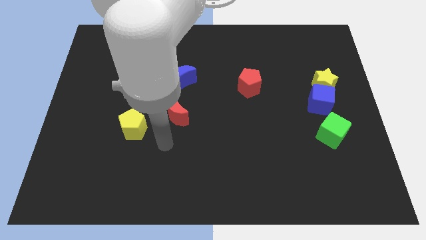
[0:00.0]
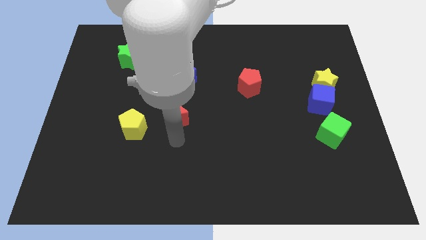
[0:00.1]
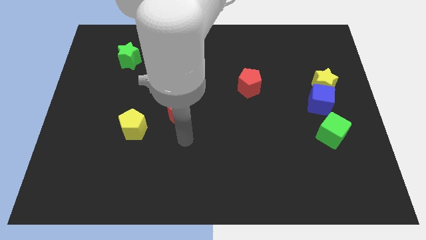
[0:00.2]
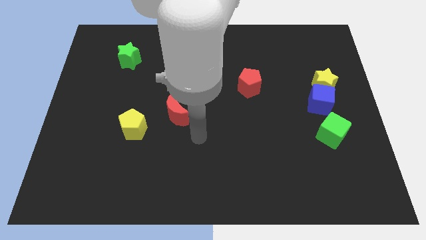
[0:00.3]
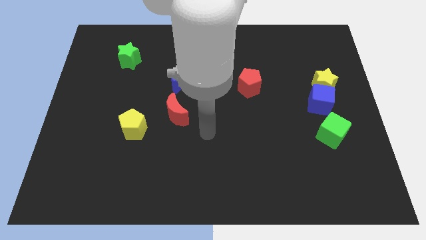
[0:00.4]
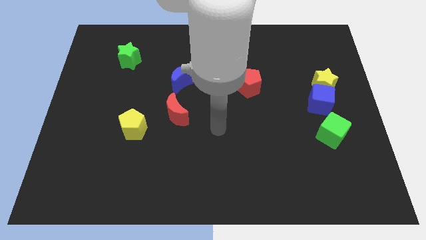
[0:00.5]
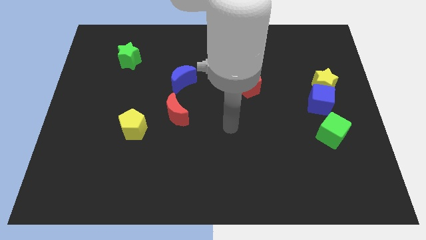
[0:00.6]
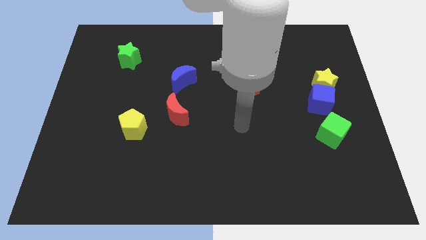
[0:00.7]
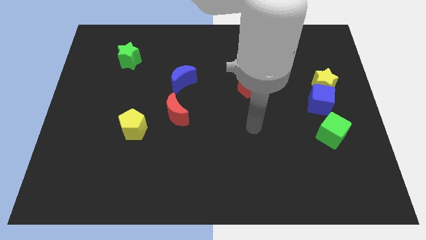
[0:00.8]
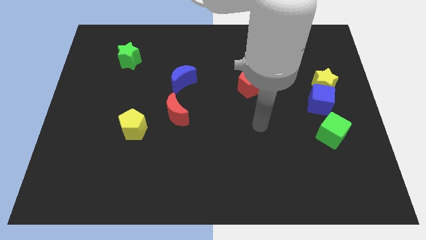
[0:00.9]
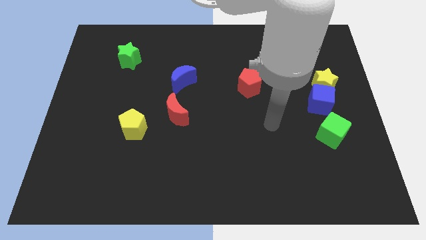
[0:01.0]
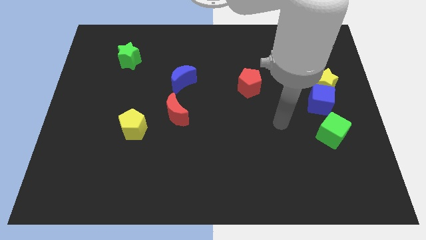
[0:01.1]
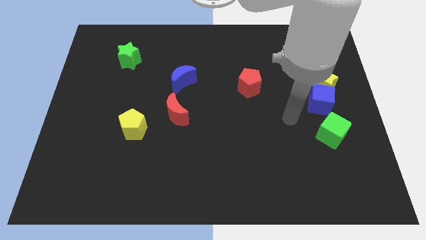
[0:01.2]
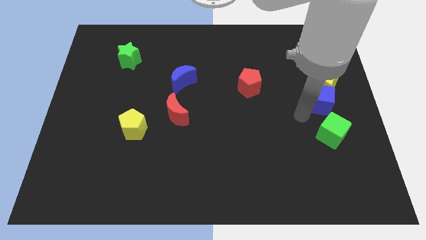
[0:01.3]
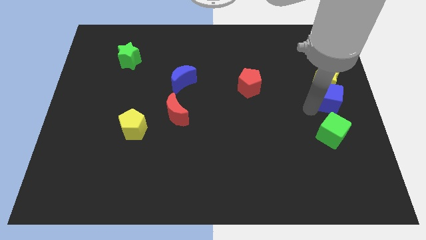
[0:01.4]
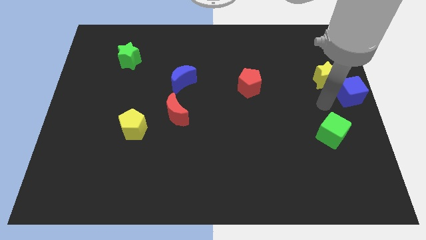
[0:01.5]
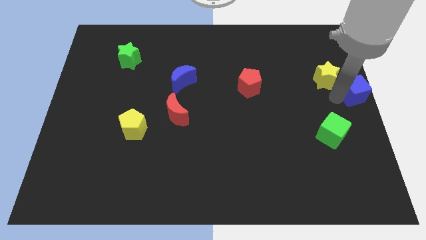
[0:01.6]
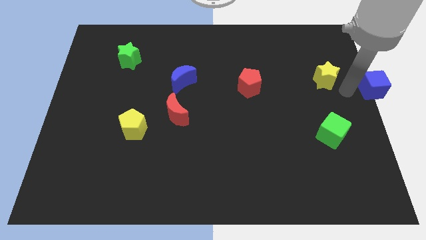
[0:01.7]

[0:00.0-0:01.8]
separate the yellow star from the blue cube

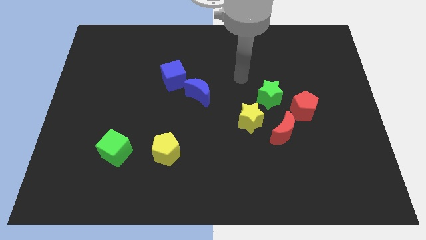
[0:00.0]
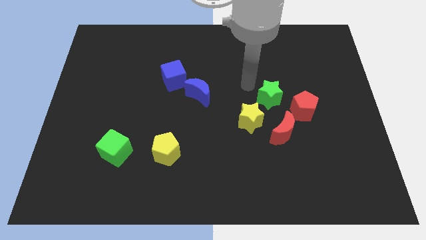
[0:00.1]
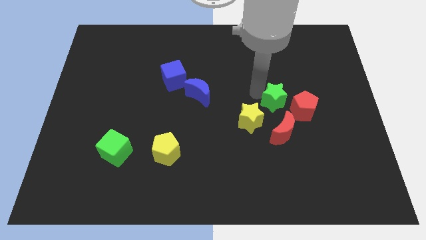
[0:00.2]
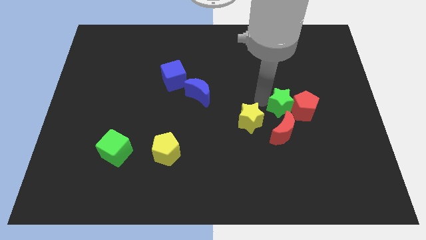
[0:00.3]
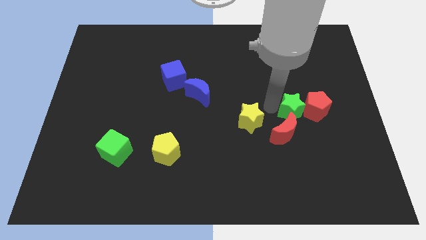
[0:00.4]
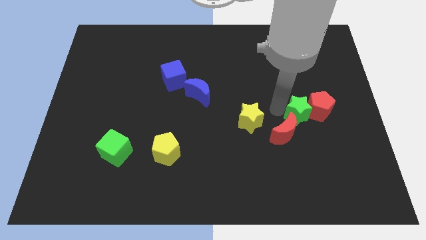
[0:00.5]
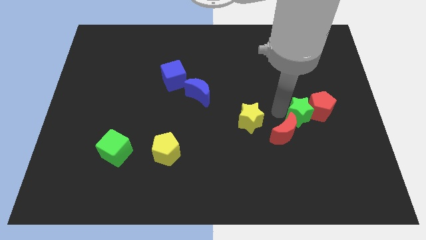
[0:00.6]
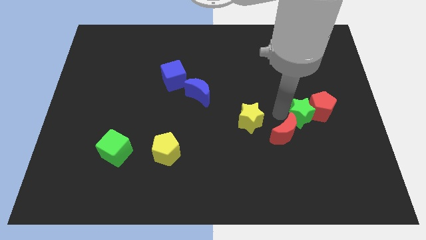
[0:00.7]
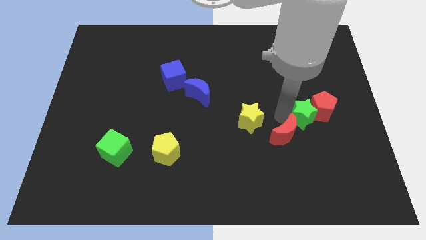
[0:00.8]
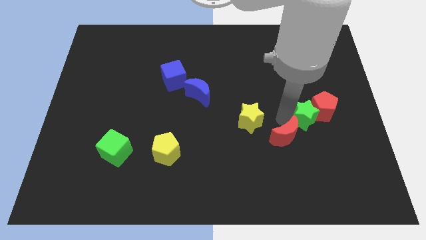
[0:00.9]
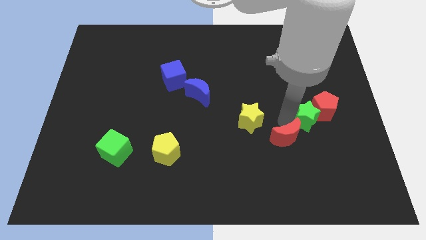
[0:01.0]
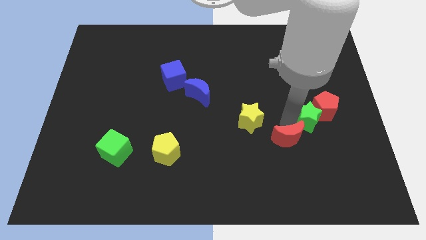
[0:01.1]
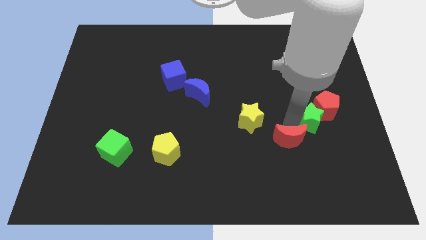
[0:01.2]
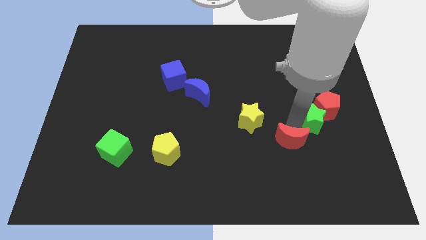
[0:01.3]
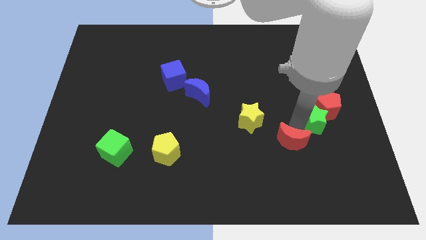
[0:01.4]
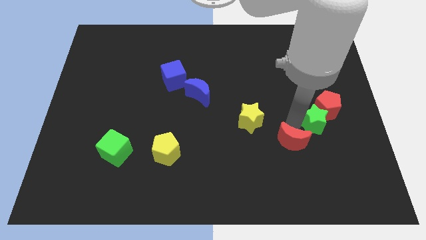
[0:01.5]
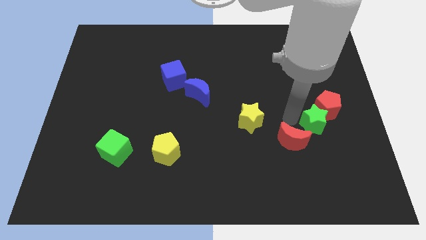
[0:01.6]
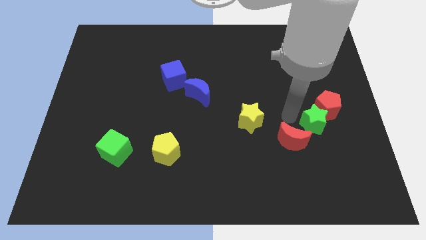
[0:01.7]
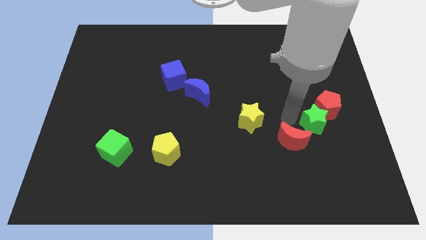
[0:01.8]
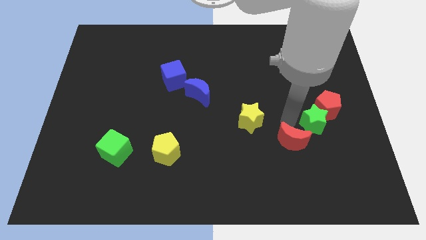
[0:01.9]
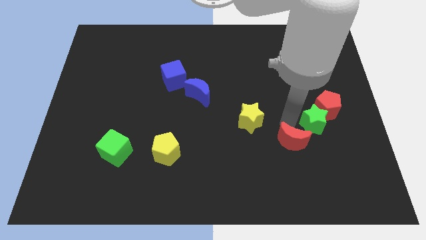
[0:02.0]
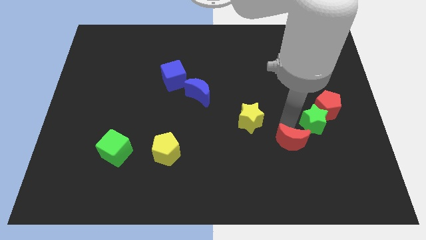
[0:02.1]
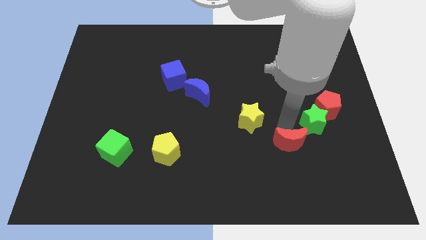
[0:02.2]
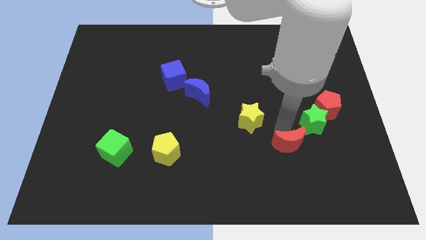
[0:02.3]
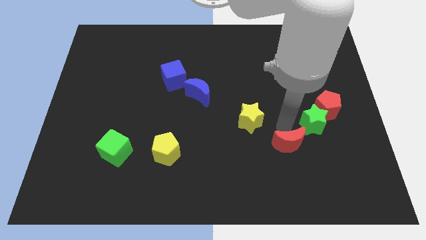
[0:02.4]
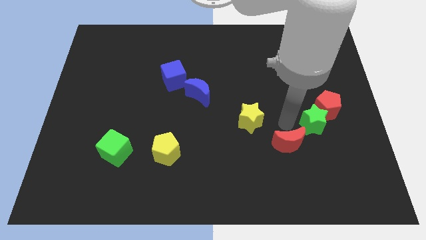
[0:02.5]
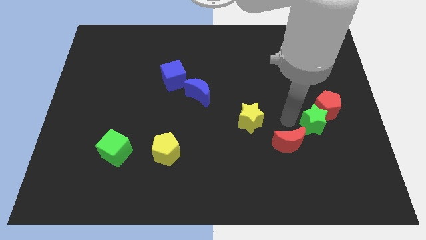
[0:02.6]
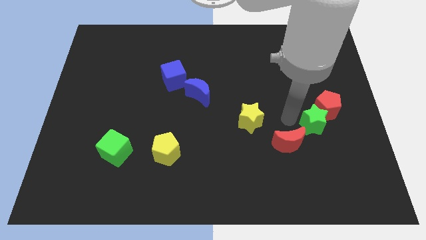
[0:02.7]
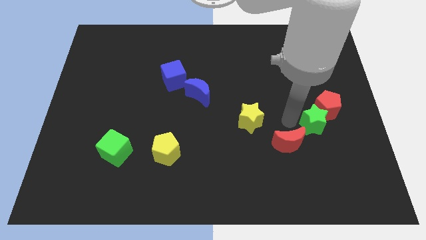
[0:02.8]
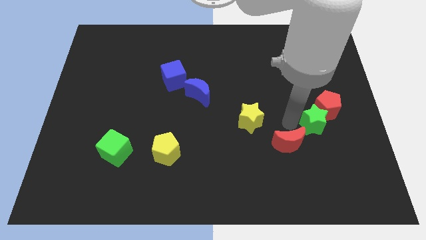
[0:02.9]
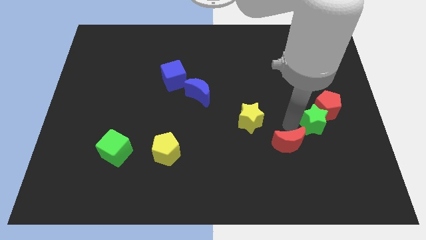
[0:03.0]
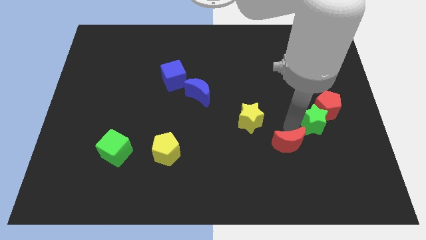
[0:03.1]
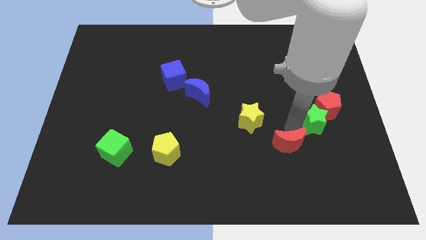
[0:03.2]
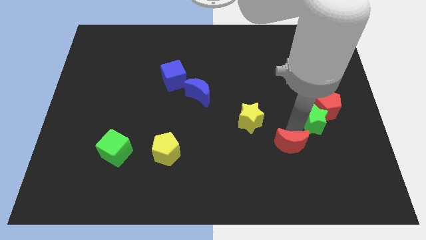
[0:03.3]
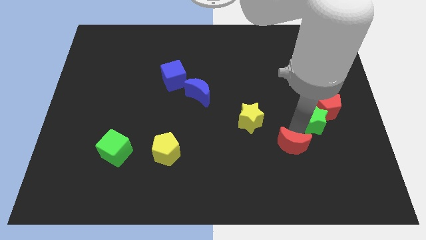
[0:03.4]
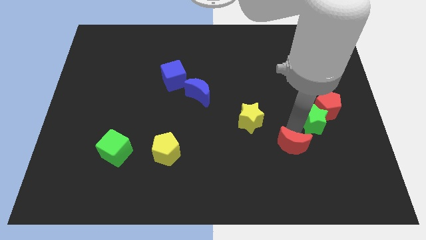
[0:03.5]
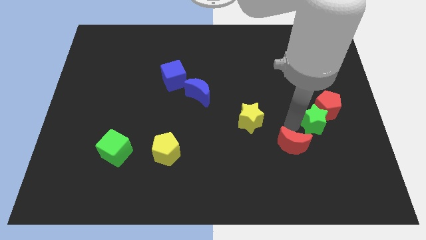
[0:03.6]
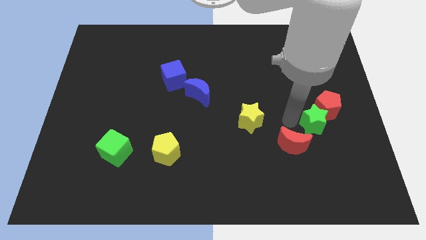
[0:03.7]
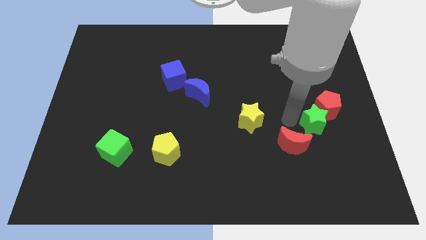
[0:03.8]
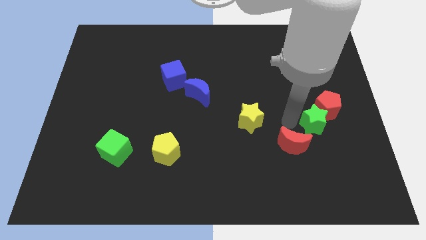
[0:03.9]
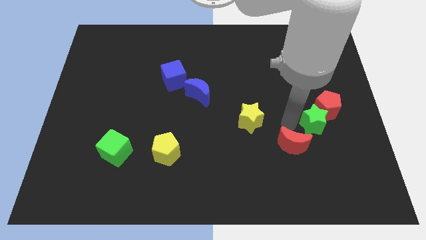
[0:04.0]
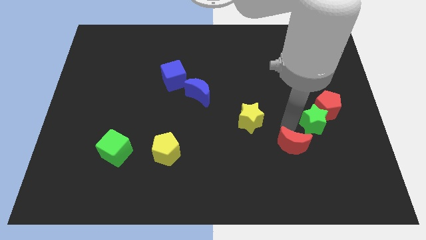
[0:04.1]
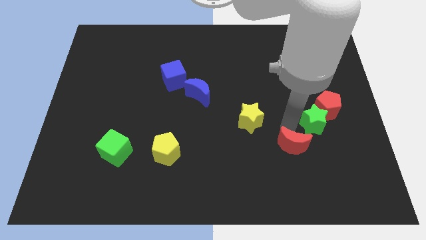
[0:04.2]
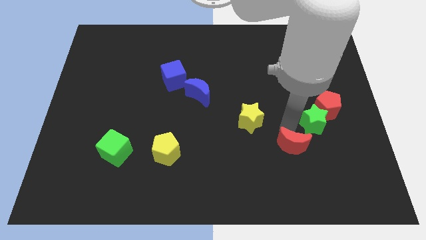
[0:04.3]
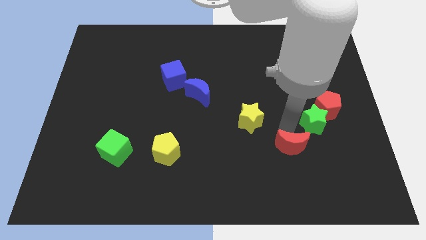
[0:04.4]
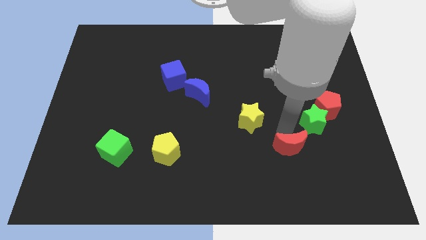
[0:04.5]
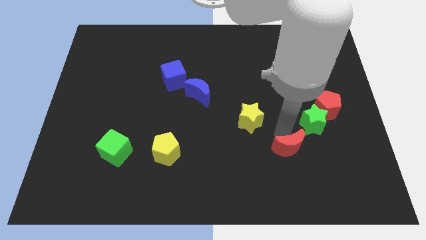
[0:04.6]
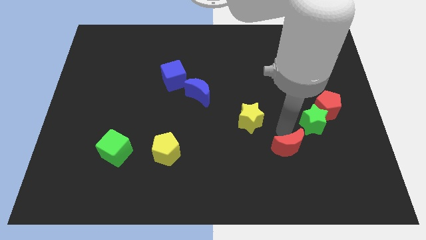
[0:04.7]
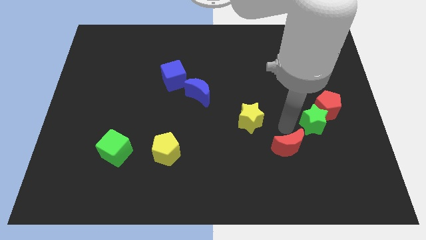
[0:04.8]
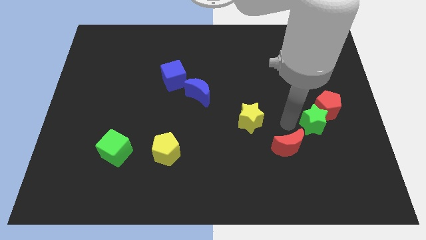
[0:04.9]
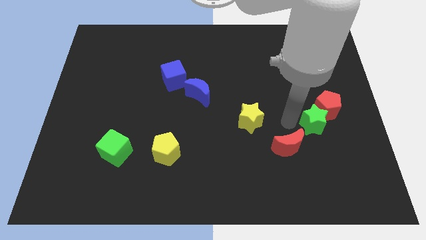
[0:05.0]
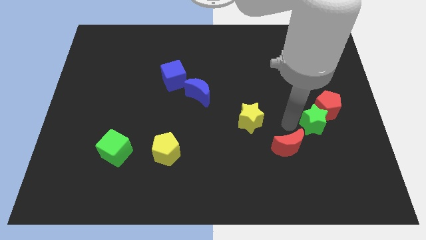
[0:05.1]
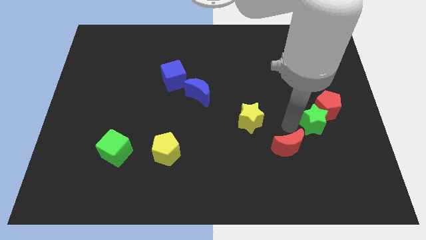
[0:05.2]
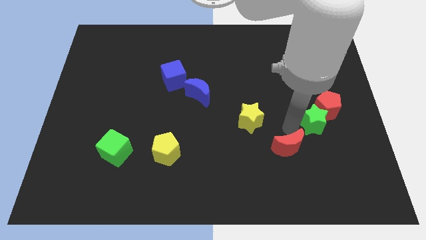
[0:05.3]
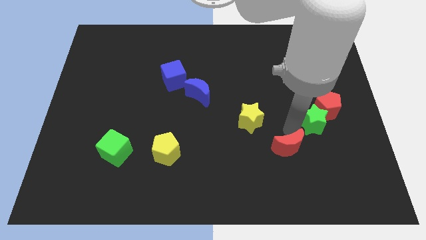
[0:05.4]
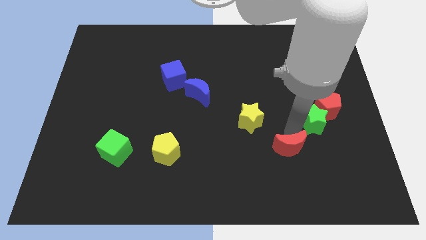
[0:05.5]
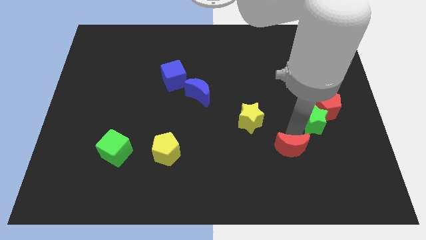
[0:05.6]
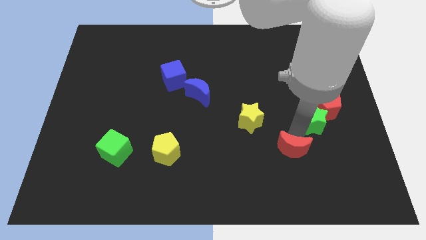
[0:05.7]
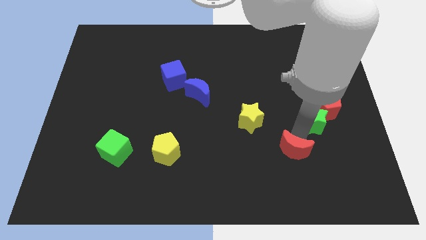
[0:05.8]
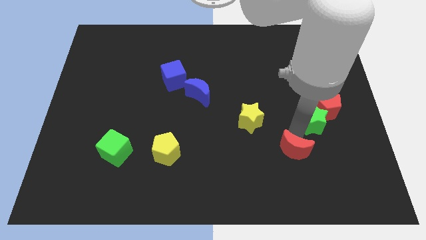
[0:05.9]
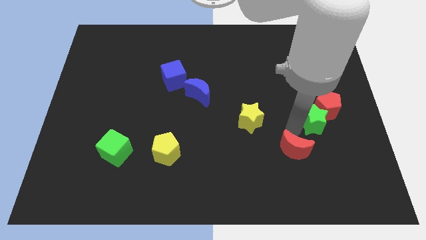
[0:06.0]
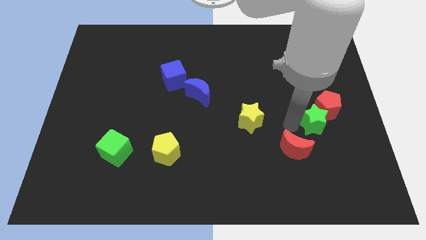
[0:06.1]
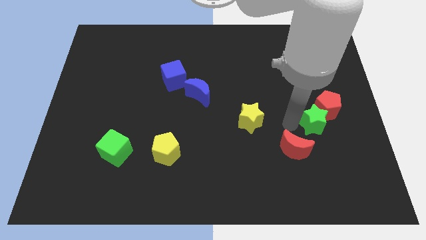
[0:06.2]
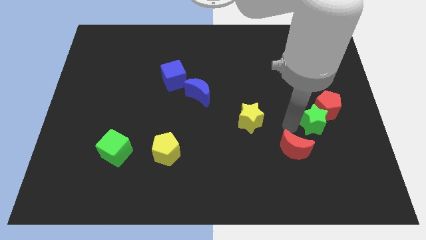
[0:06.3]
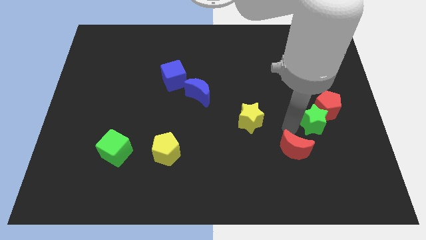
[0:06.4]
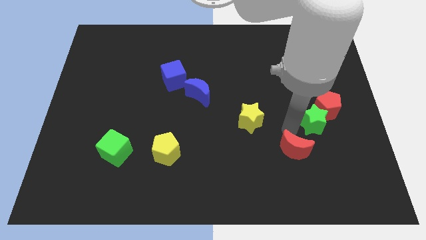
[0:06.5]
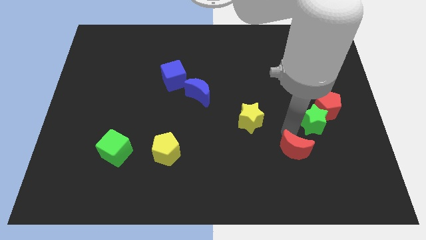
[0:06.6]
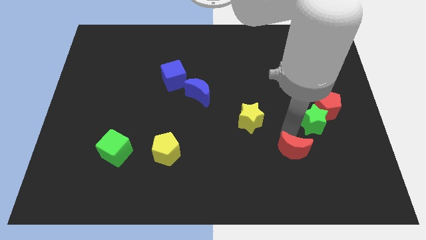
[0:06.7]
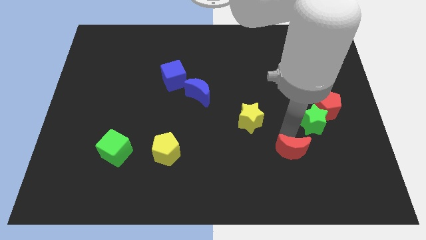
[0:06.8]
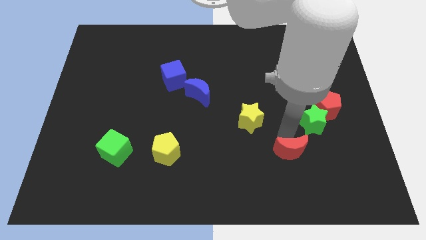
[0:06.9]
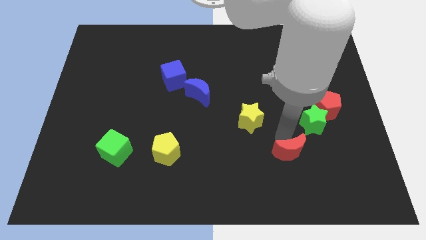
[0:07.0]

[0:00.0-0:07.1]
move the red moon away from the yellow star and red pentagon

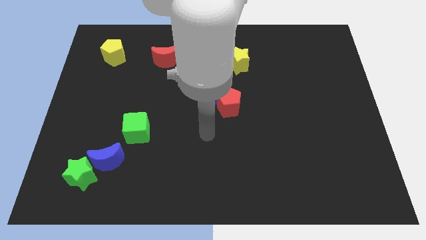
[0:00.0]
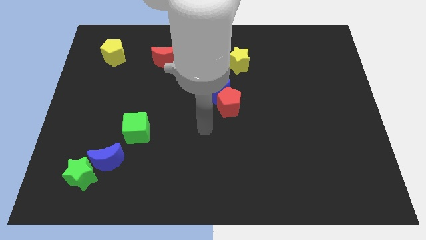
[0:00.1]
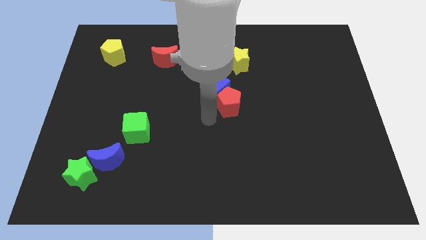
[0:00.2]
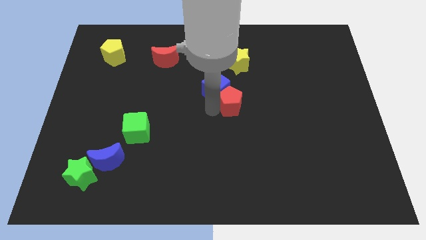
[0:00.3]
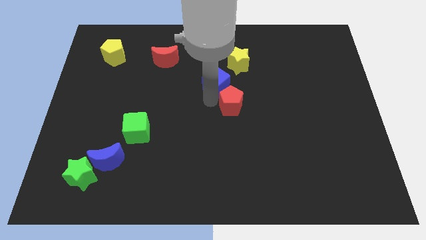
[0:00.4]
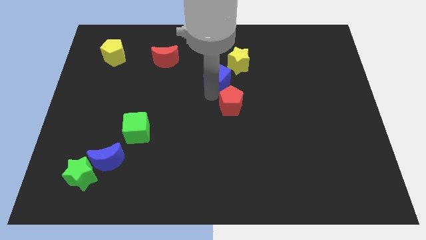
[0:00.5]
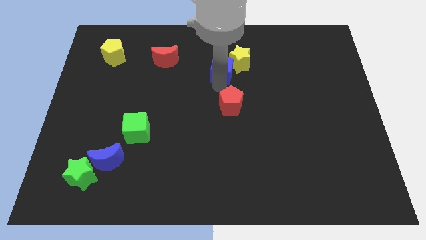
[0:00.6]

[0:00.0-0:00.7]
separate the red pentagon from the blue cube
